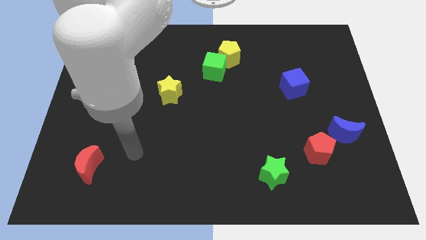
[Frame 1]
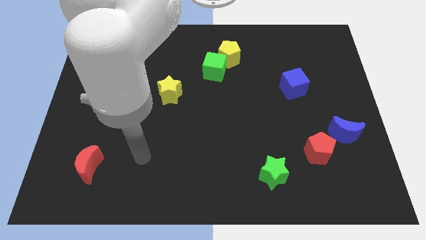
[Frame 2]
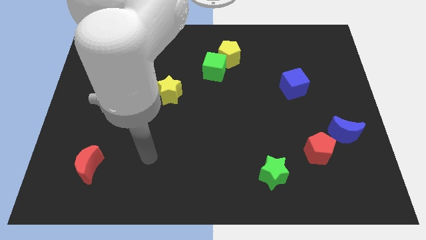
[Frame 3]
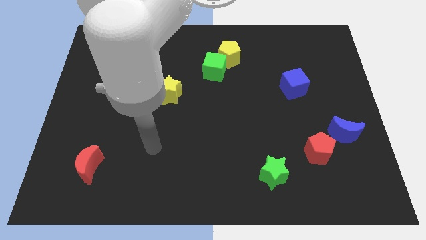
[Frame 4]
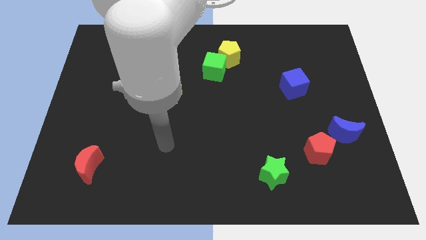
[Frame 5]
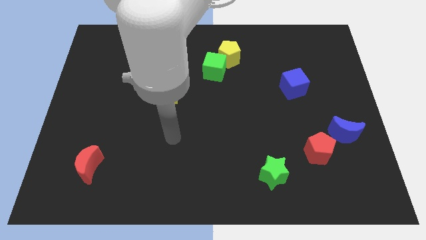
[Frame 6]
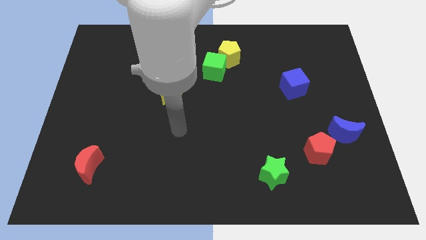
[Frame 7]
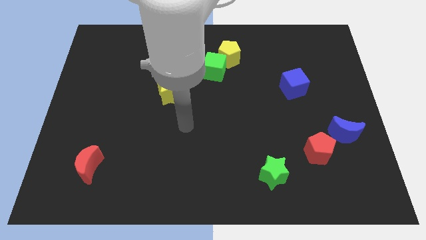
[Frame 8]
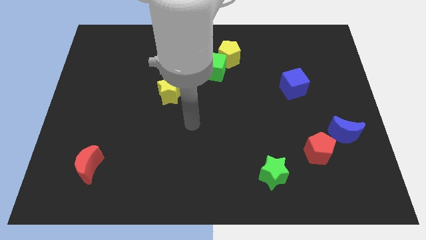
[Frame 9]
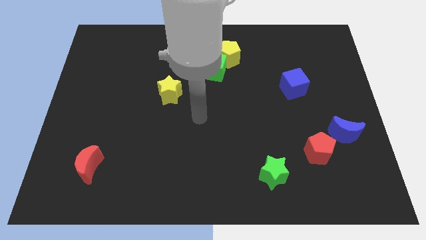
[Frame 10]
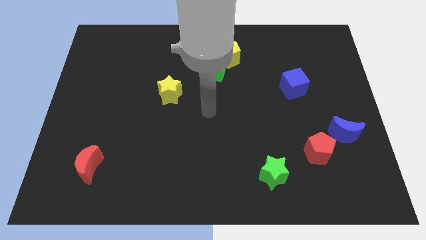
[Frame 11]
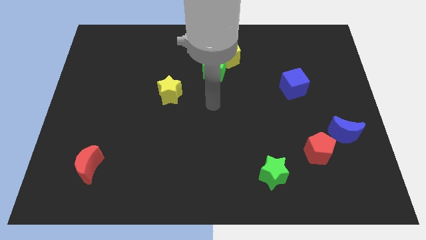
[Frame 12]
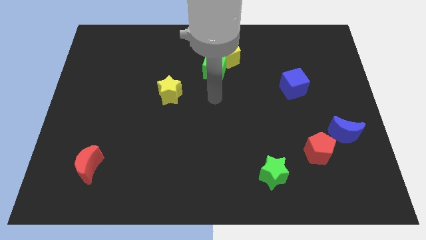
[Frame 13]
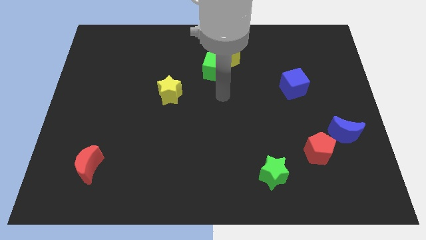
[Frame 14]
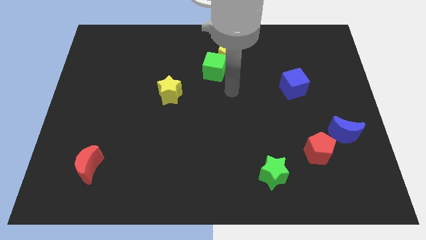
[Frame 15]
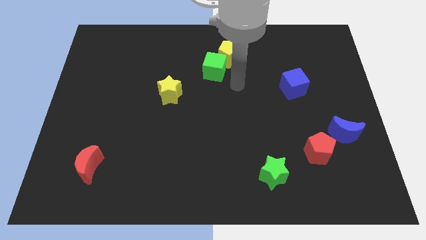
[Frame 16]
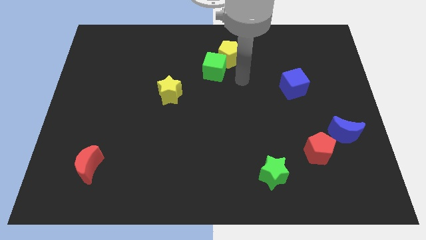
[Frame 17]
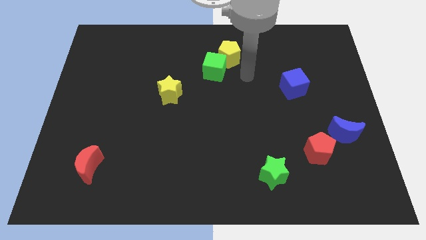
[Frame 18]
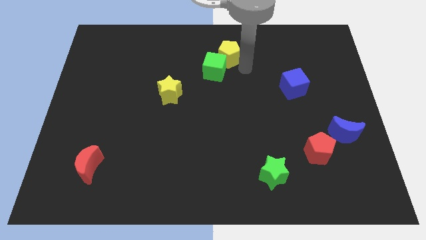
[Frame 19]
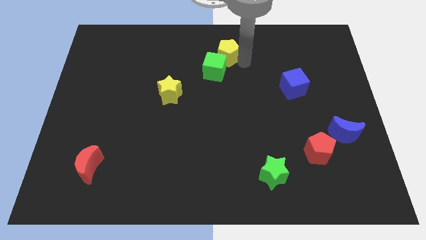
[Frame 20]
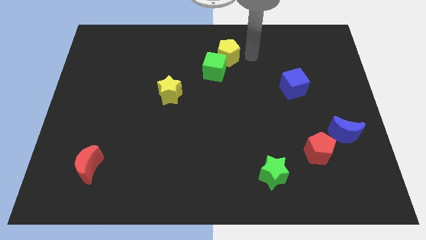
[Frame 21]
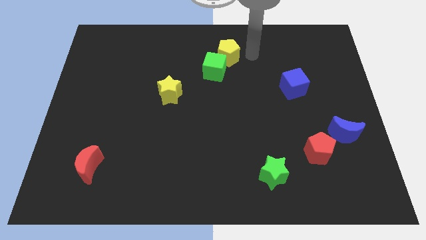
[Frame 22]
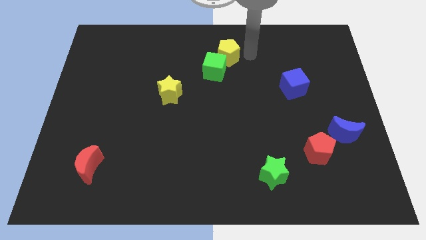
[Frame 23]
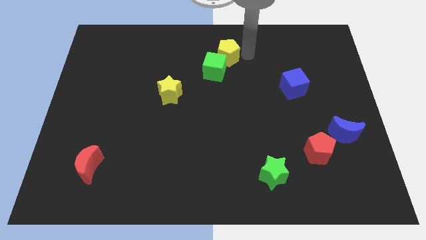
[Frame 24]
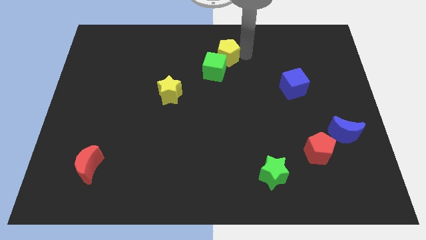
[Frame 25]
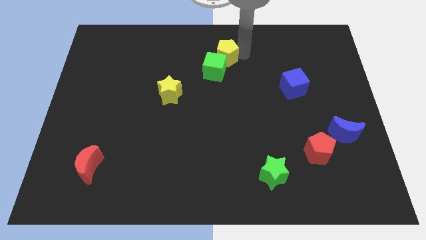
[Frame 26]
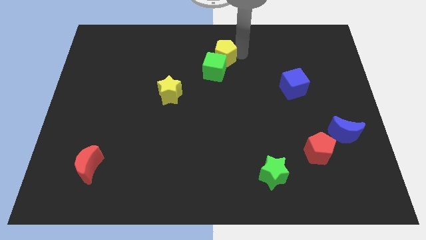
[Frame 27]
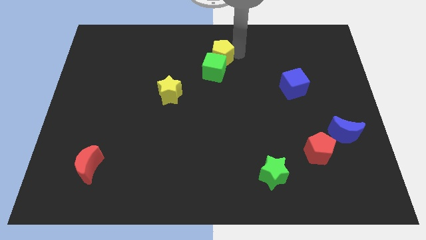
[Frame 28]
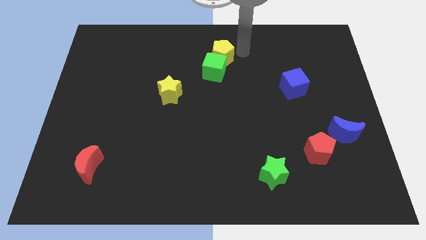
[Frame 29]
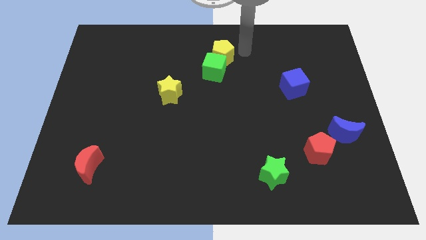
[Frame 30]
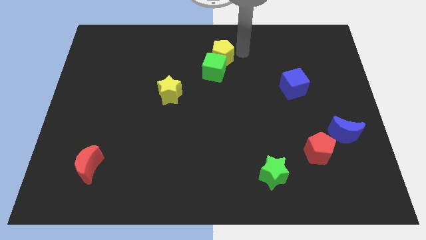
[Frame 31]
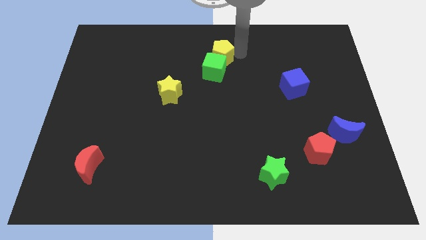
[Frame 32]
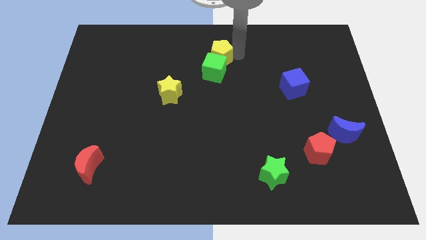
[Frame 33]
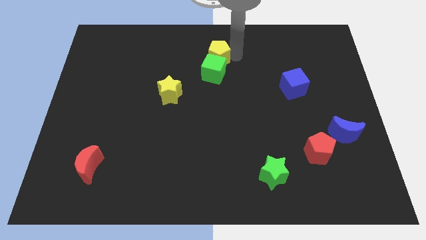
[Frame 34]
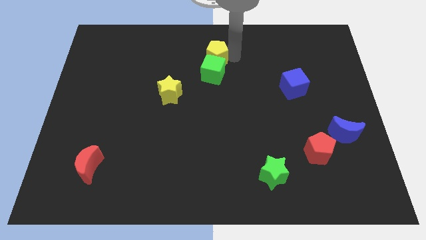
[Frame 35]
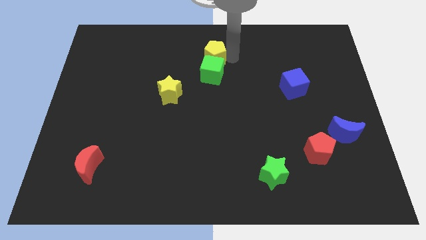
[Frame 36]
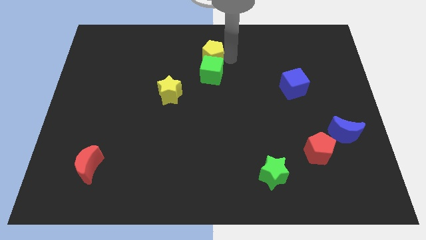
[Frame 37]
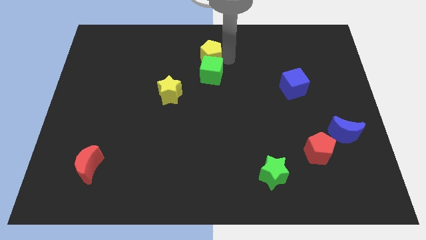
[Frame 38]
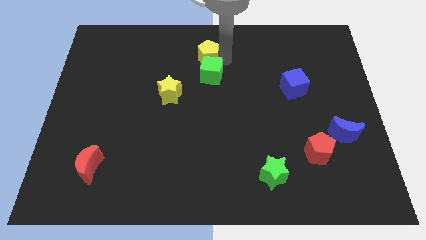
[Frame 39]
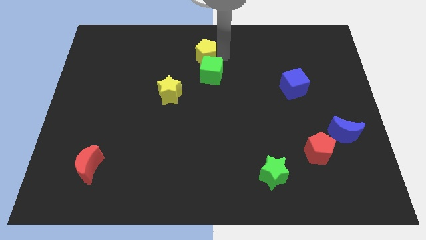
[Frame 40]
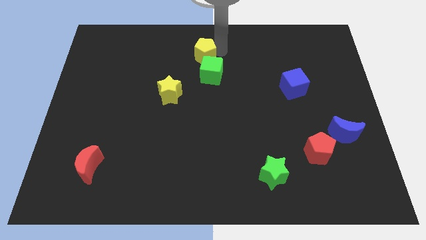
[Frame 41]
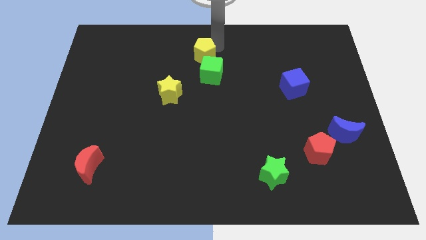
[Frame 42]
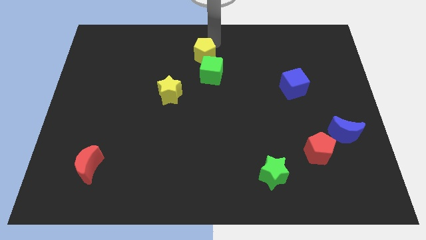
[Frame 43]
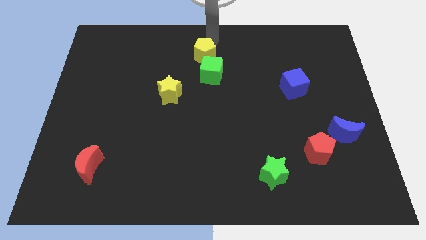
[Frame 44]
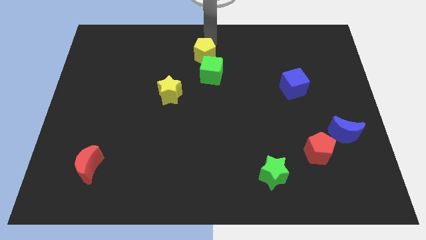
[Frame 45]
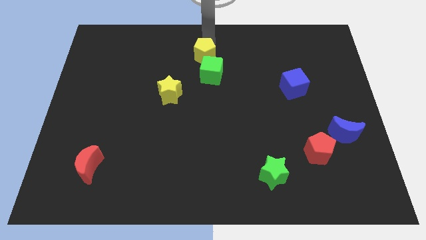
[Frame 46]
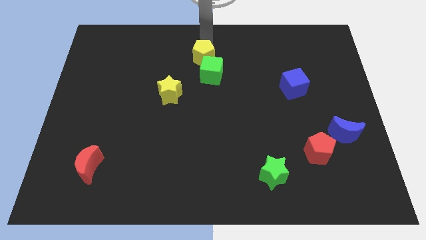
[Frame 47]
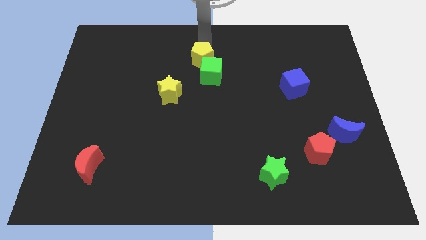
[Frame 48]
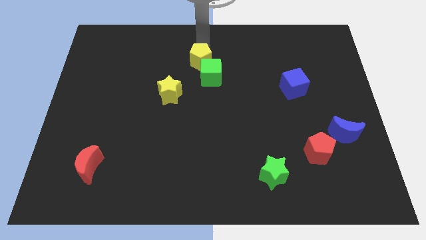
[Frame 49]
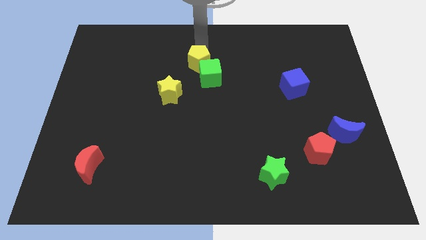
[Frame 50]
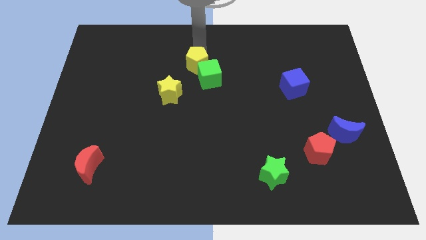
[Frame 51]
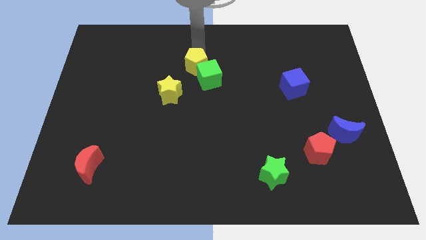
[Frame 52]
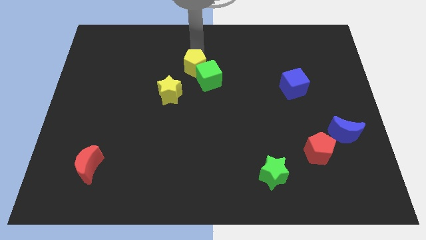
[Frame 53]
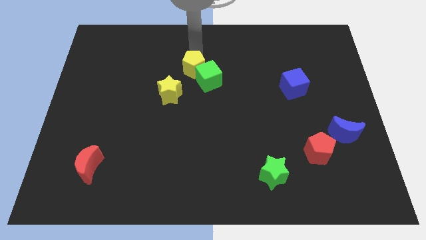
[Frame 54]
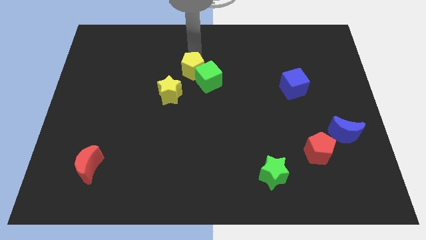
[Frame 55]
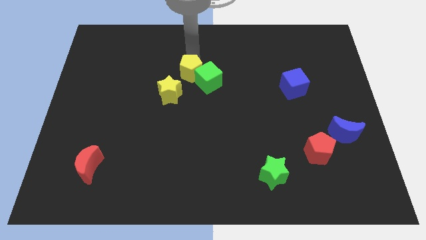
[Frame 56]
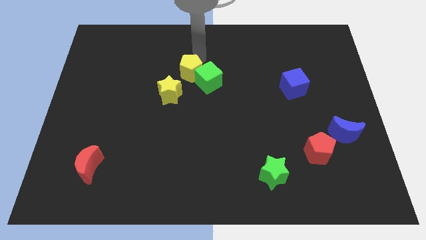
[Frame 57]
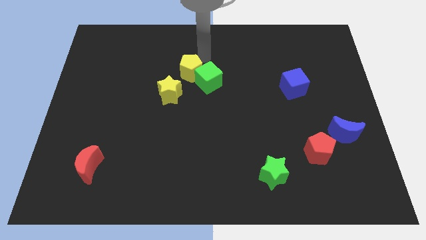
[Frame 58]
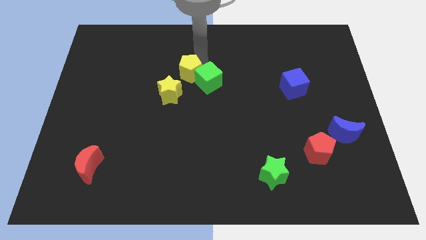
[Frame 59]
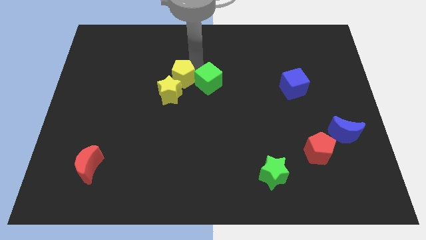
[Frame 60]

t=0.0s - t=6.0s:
put the yellow pentagon next to the yellow star

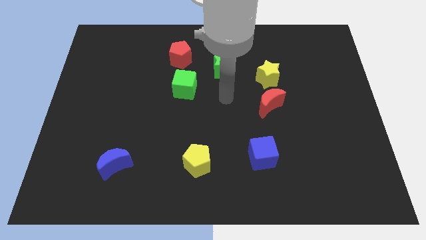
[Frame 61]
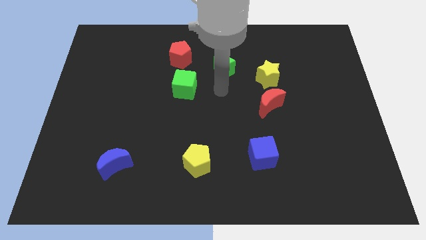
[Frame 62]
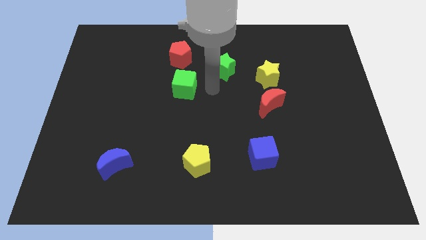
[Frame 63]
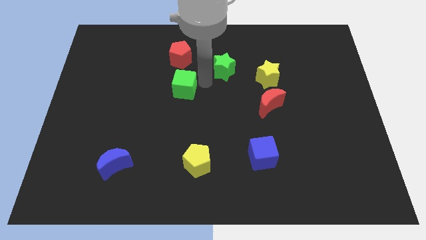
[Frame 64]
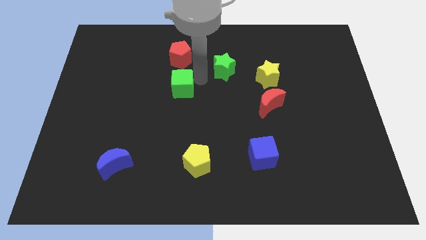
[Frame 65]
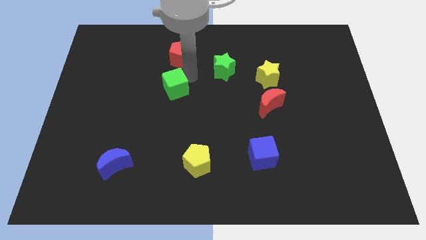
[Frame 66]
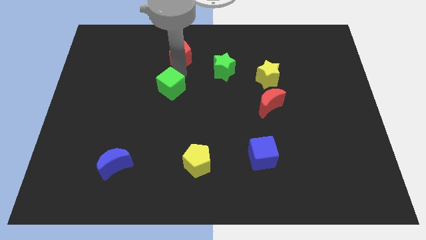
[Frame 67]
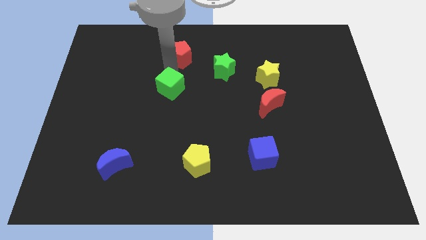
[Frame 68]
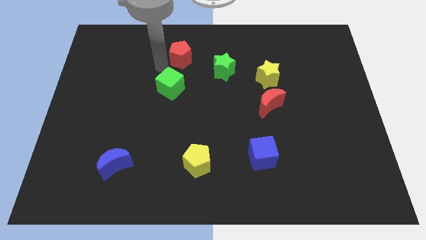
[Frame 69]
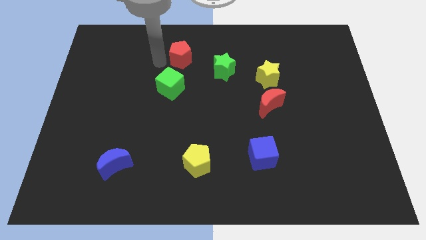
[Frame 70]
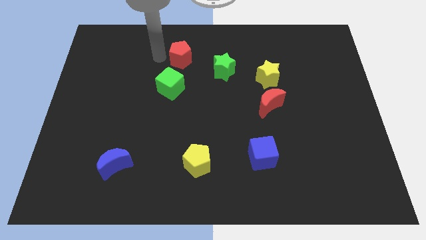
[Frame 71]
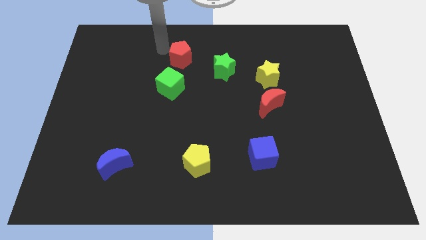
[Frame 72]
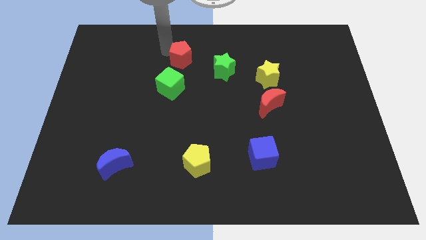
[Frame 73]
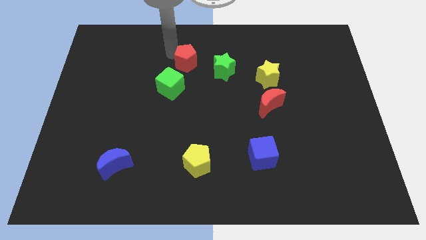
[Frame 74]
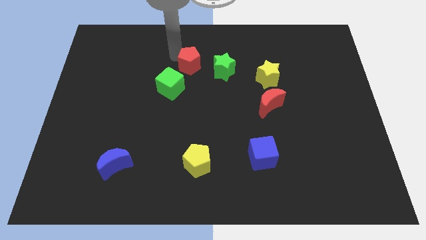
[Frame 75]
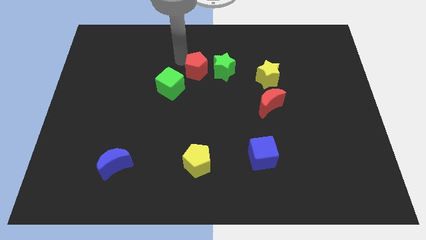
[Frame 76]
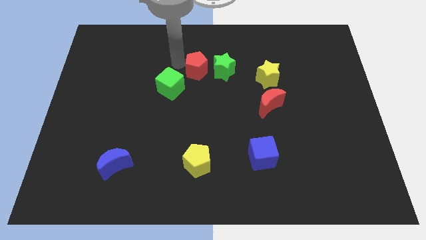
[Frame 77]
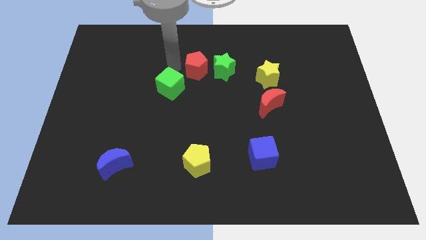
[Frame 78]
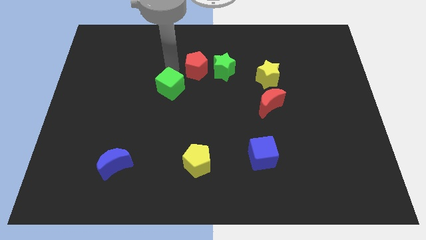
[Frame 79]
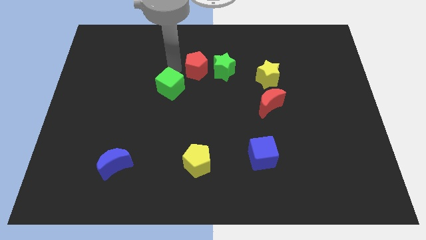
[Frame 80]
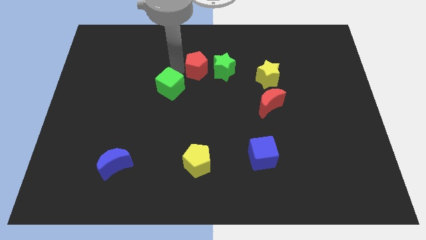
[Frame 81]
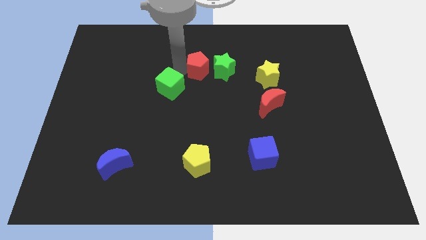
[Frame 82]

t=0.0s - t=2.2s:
slide the red pentagon next to the green star
